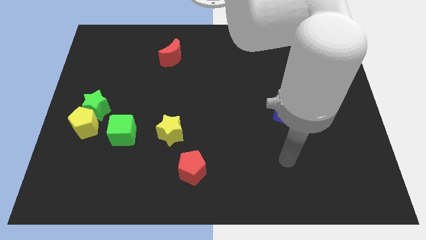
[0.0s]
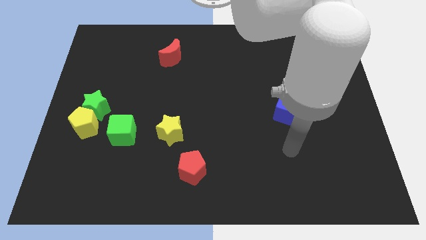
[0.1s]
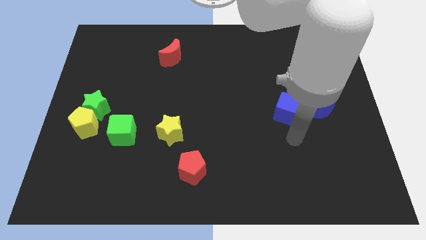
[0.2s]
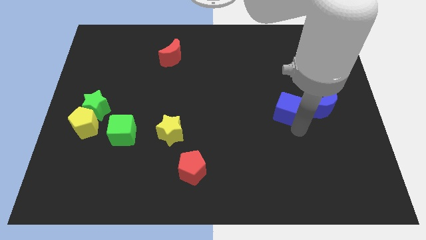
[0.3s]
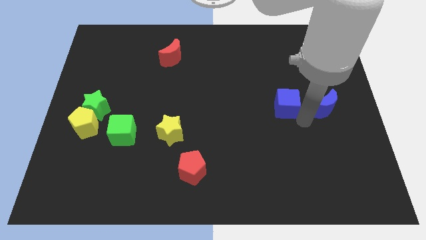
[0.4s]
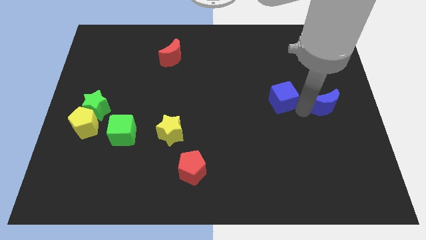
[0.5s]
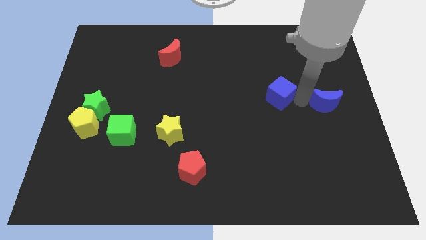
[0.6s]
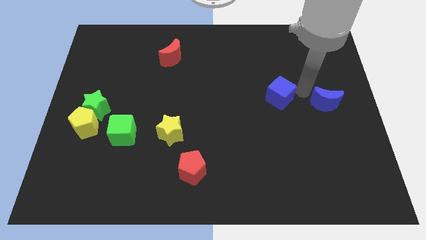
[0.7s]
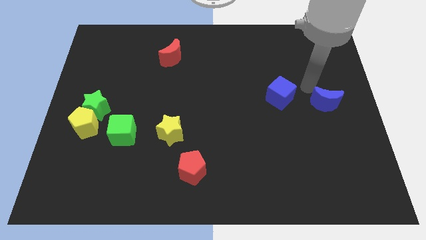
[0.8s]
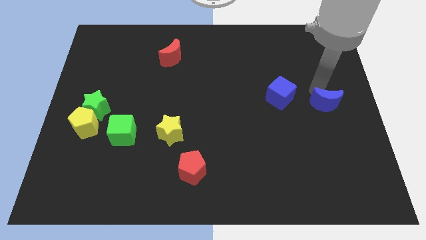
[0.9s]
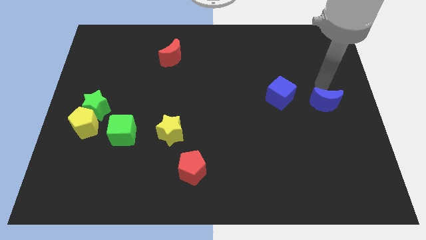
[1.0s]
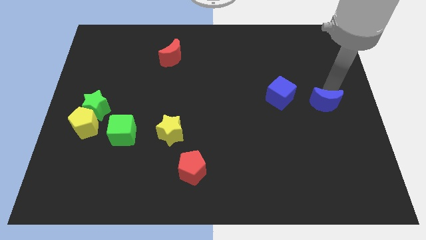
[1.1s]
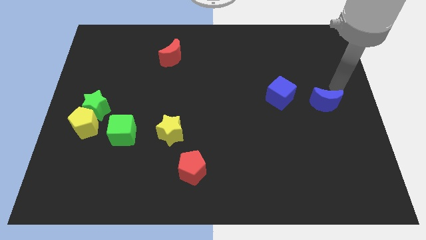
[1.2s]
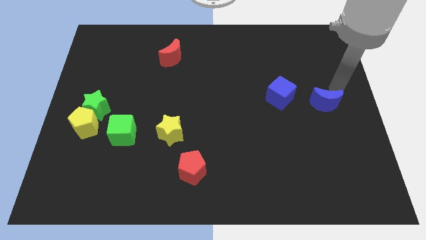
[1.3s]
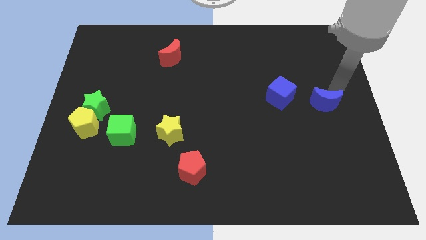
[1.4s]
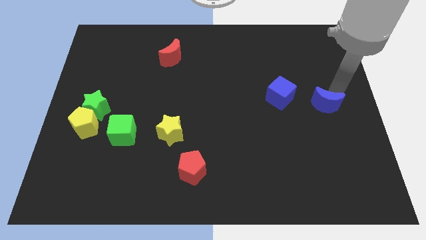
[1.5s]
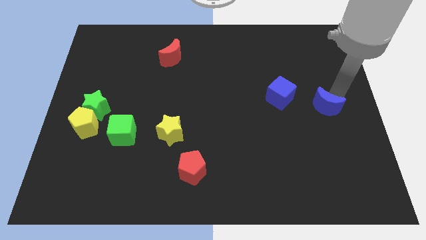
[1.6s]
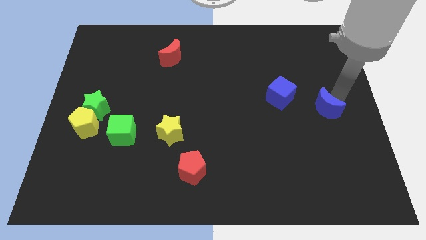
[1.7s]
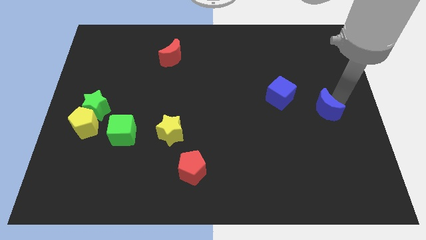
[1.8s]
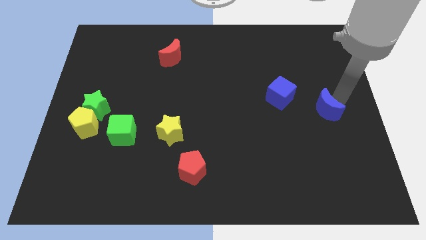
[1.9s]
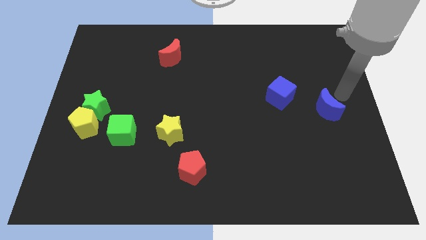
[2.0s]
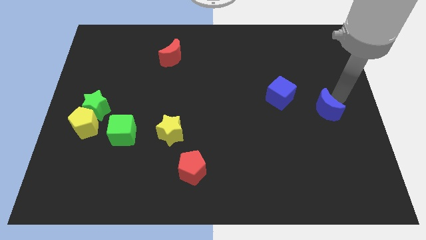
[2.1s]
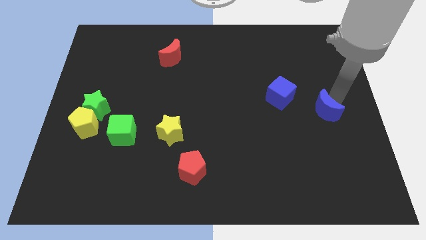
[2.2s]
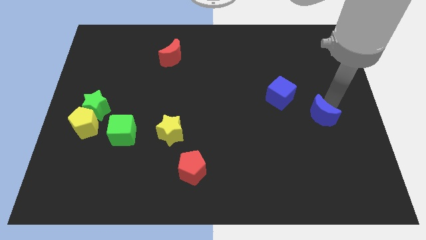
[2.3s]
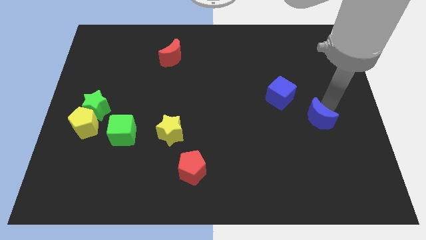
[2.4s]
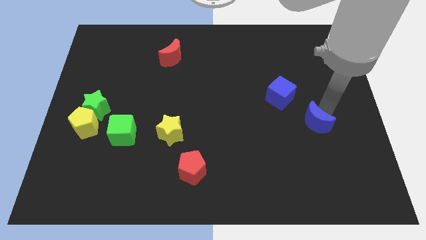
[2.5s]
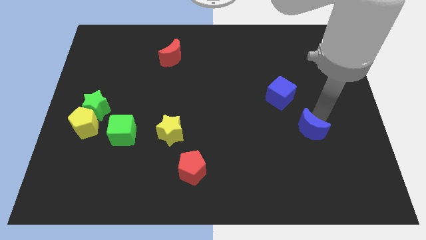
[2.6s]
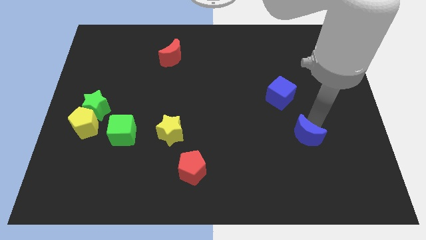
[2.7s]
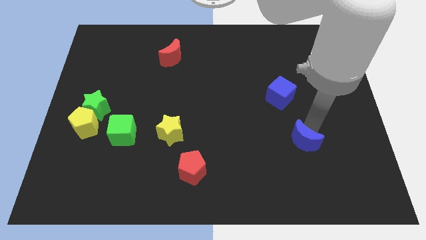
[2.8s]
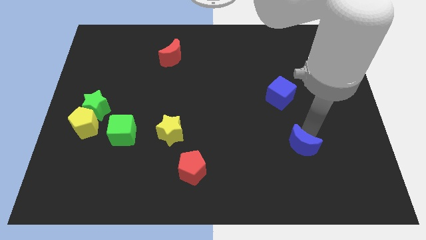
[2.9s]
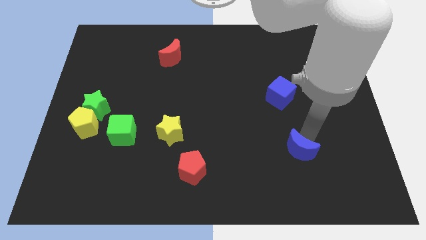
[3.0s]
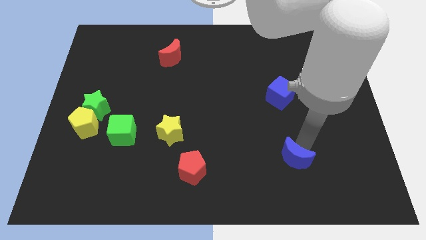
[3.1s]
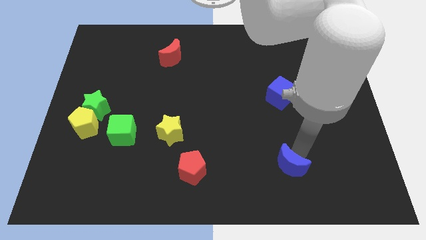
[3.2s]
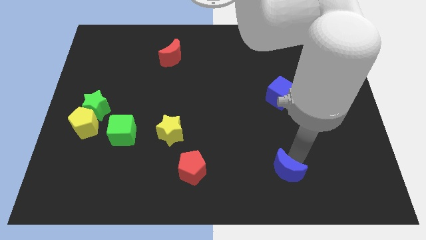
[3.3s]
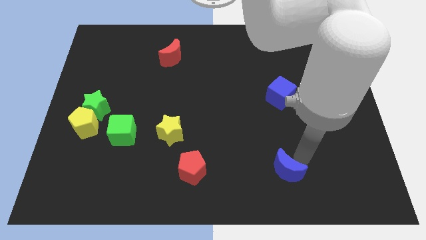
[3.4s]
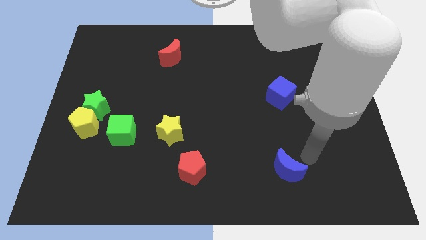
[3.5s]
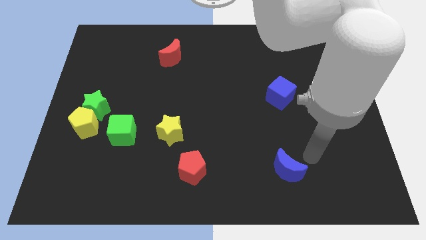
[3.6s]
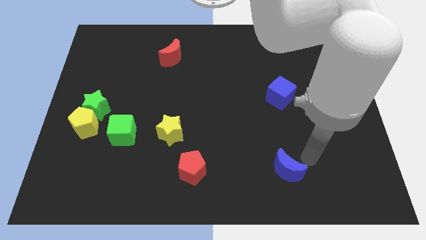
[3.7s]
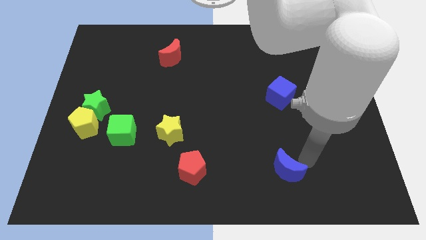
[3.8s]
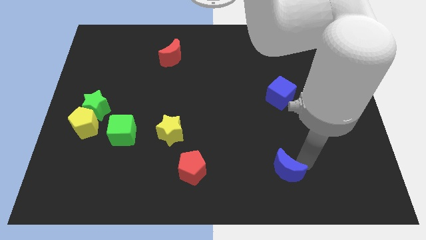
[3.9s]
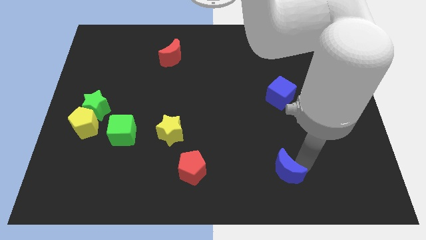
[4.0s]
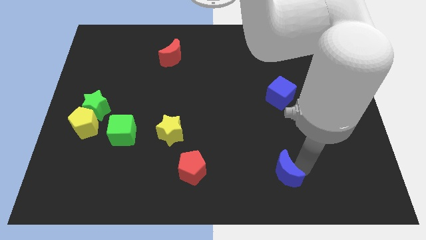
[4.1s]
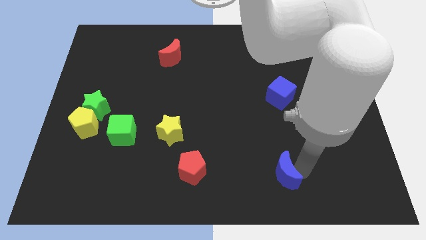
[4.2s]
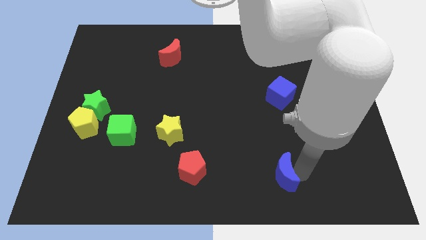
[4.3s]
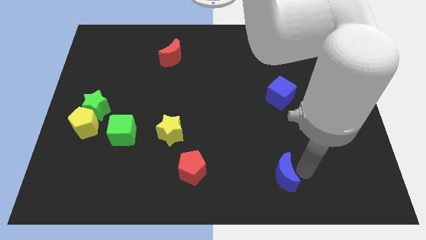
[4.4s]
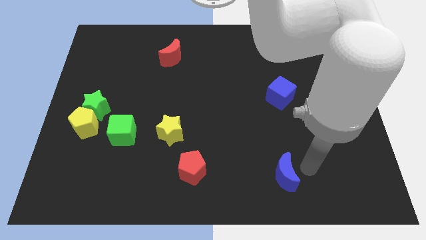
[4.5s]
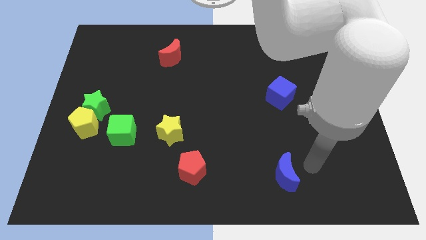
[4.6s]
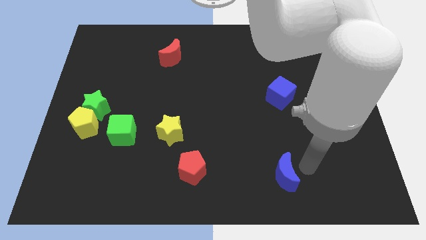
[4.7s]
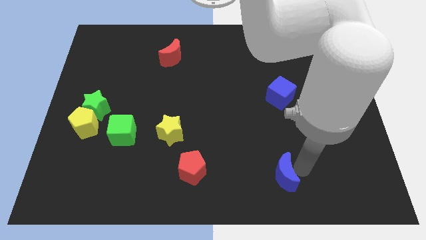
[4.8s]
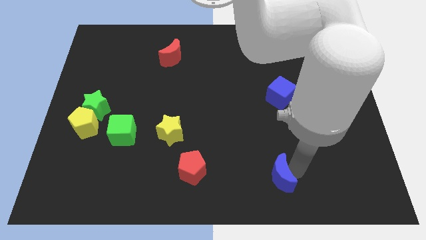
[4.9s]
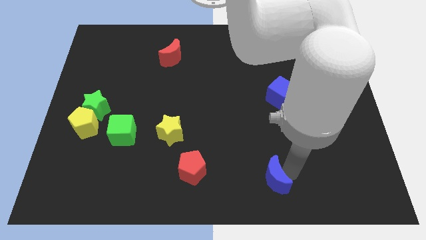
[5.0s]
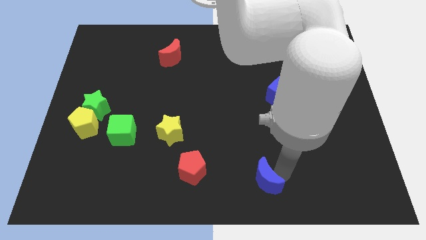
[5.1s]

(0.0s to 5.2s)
slide the blue moon to the bottom

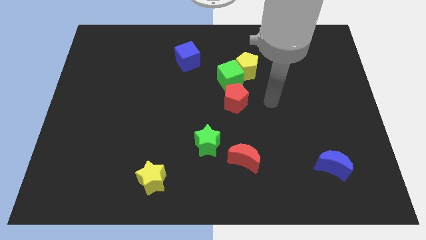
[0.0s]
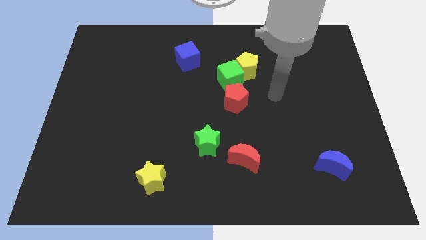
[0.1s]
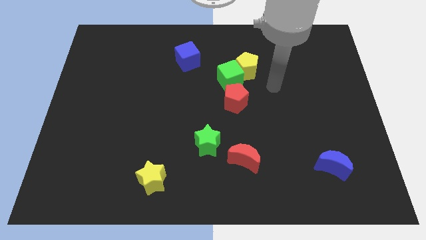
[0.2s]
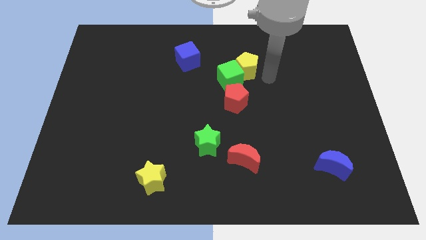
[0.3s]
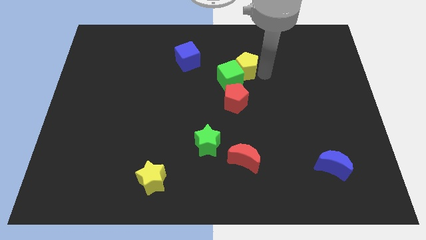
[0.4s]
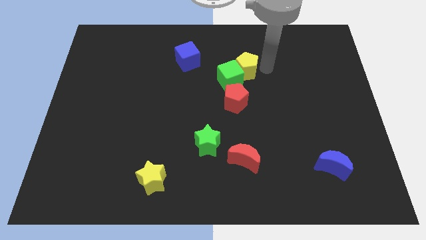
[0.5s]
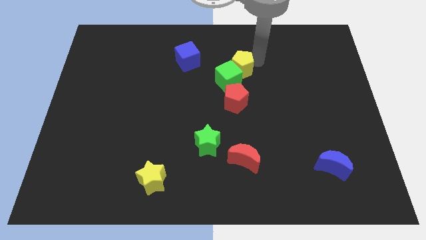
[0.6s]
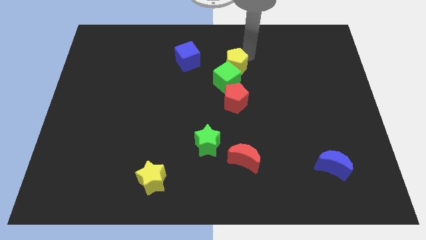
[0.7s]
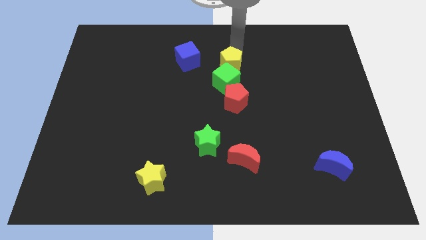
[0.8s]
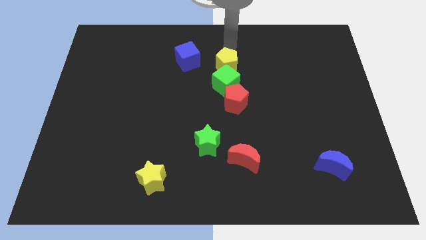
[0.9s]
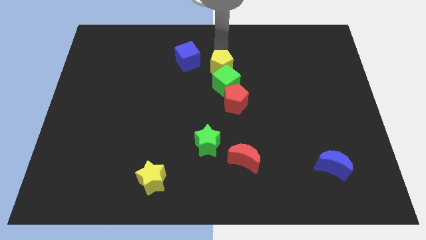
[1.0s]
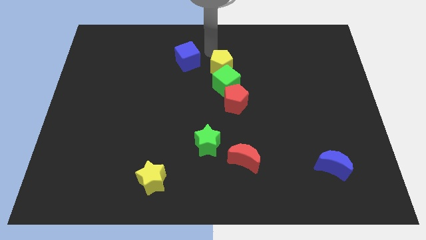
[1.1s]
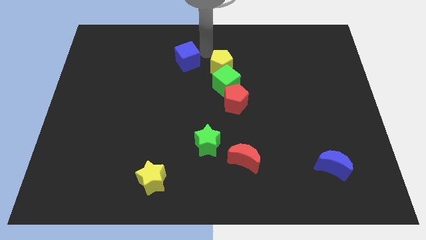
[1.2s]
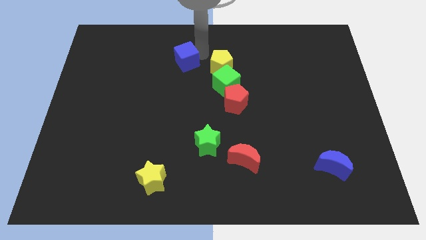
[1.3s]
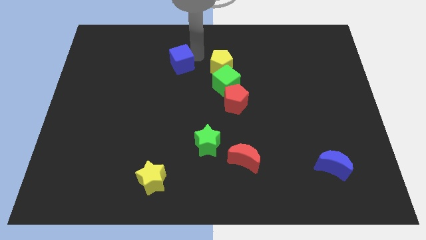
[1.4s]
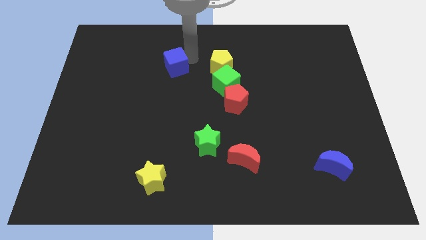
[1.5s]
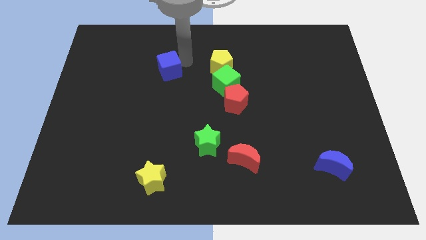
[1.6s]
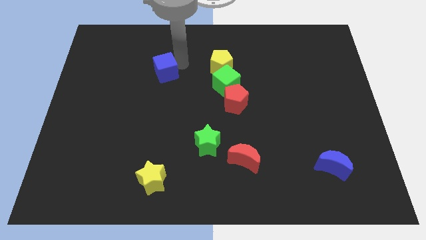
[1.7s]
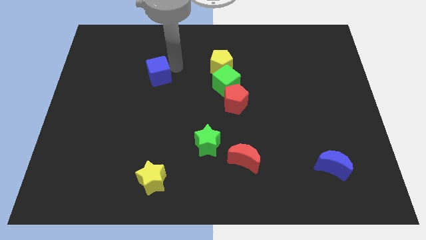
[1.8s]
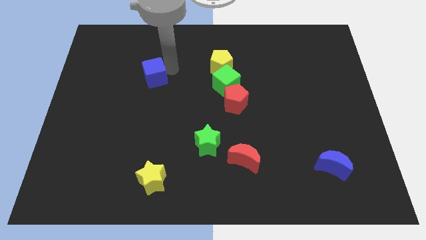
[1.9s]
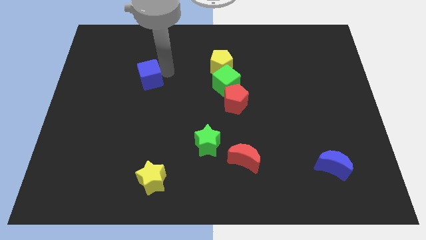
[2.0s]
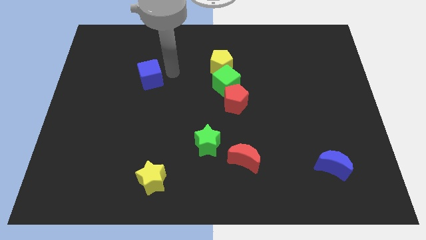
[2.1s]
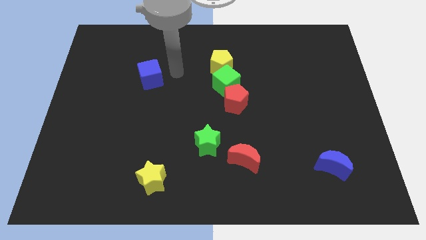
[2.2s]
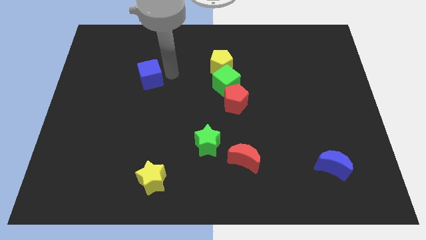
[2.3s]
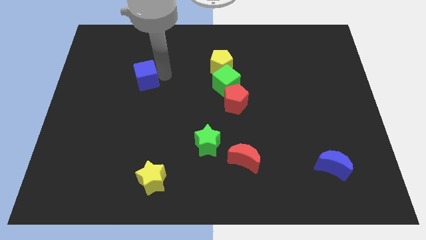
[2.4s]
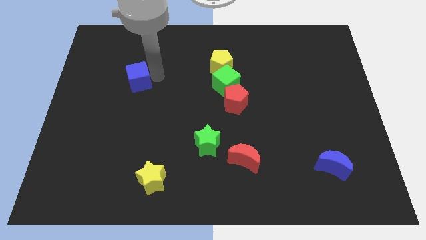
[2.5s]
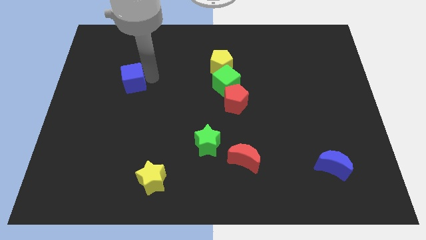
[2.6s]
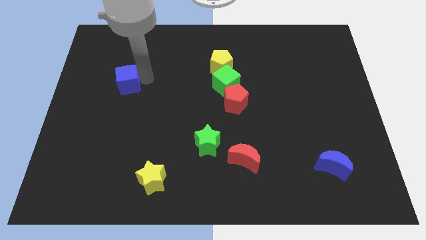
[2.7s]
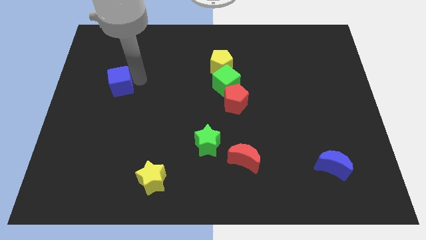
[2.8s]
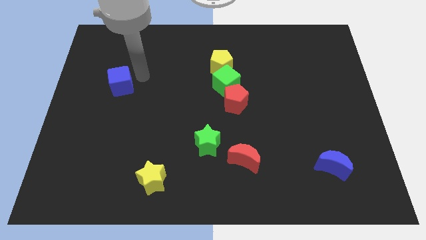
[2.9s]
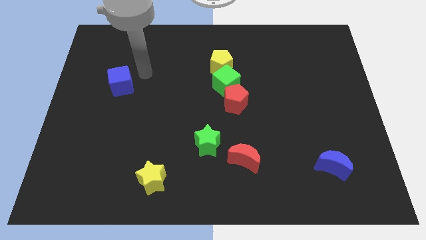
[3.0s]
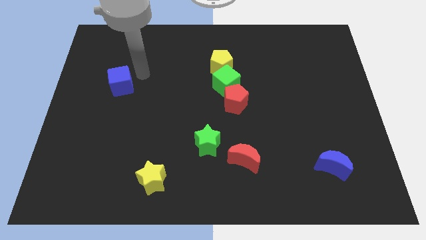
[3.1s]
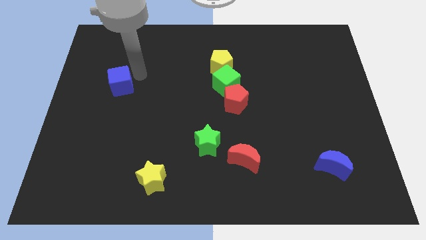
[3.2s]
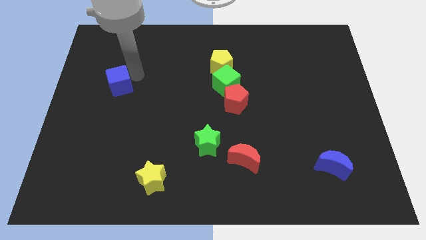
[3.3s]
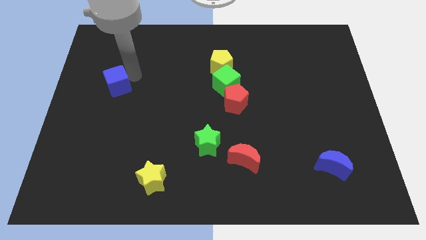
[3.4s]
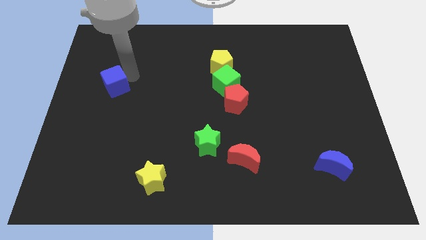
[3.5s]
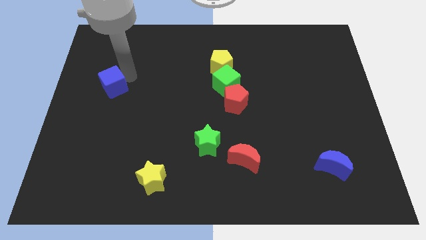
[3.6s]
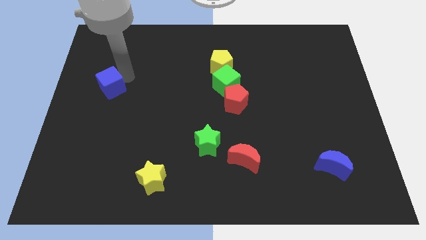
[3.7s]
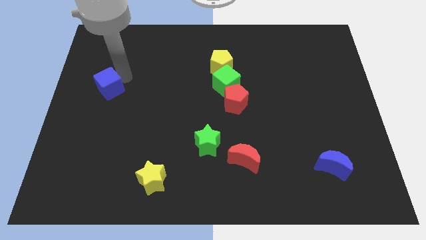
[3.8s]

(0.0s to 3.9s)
move the blue cube to the left side of the board
